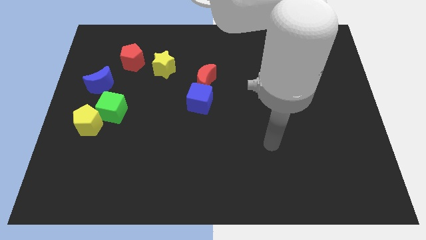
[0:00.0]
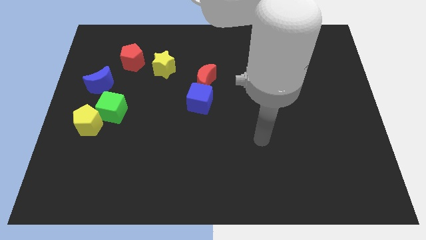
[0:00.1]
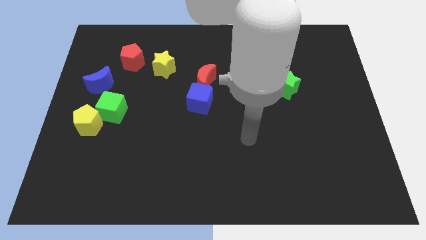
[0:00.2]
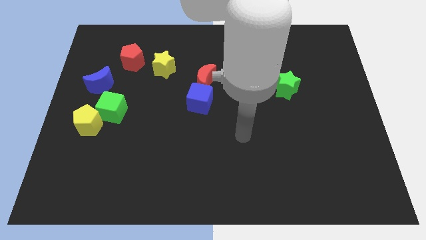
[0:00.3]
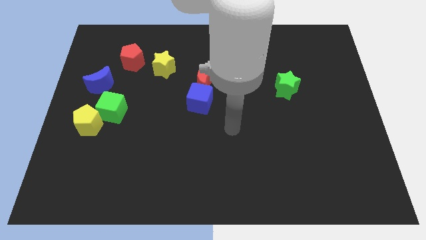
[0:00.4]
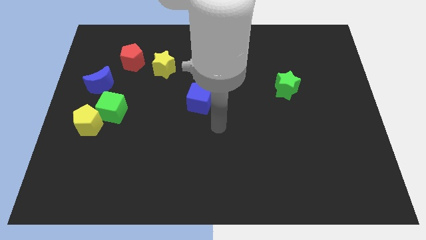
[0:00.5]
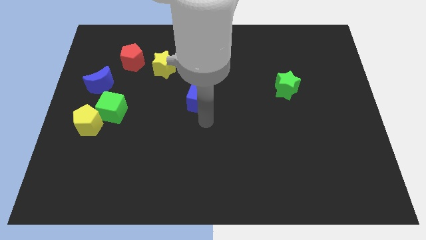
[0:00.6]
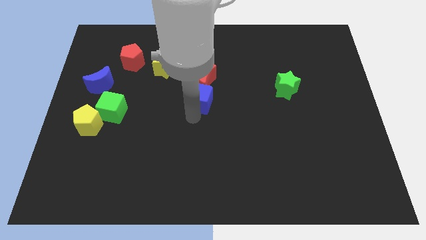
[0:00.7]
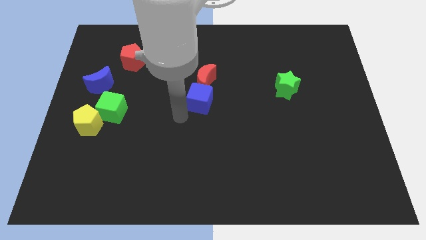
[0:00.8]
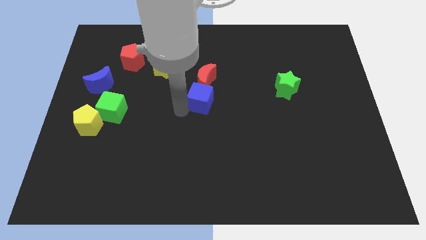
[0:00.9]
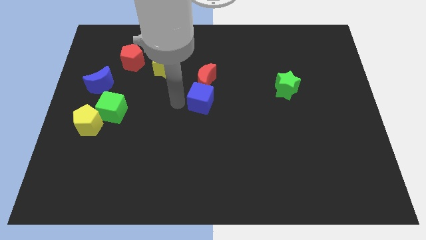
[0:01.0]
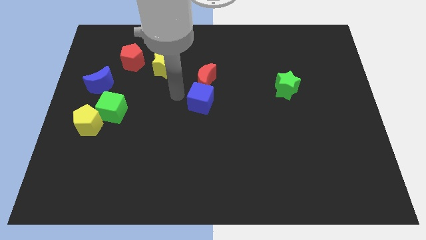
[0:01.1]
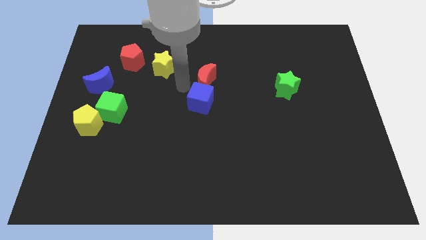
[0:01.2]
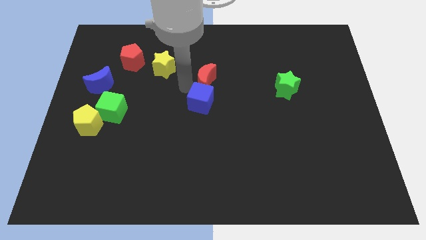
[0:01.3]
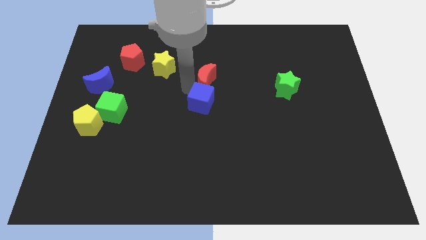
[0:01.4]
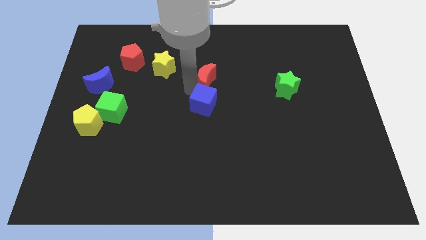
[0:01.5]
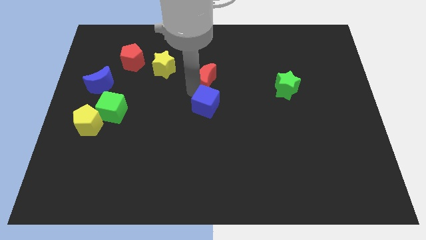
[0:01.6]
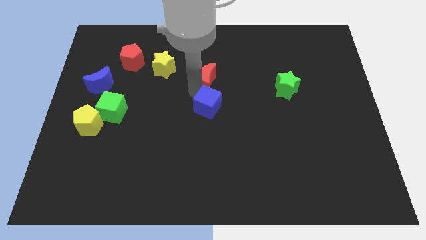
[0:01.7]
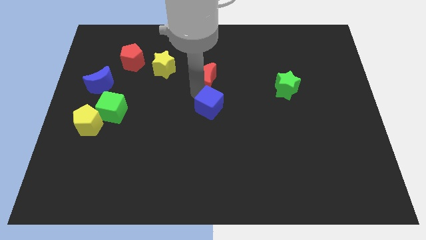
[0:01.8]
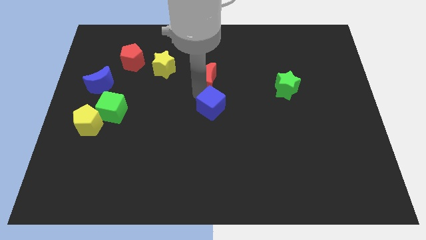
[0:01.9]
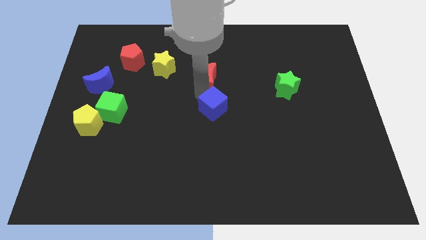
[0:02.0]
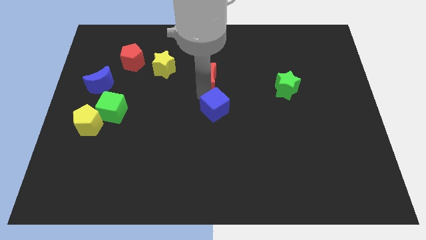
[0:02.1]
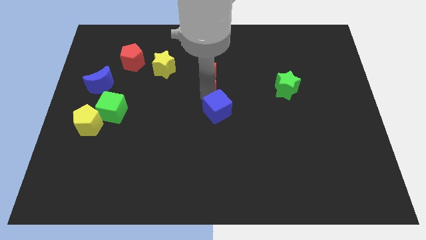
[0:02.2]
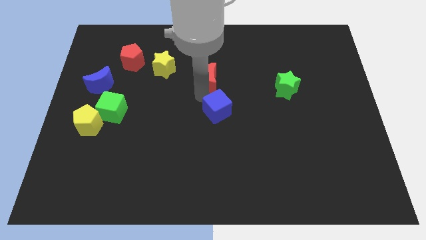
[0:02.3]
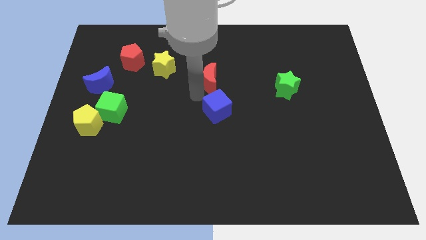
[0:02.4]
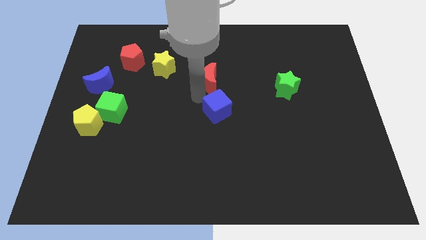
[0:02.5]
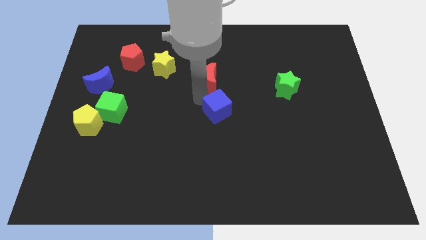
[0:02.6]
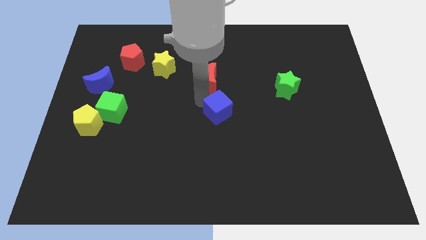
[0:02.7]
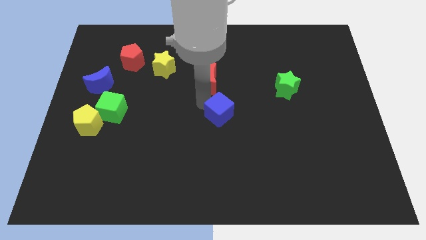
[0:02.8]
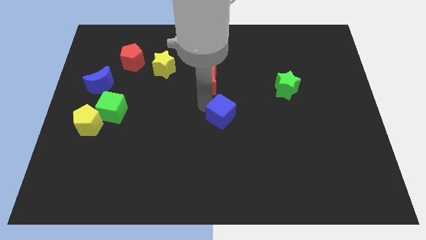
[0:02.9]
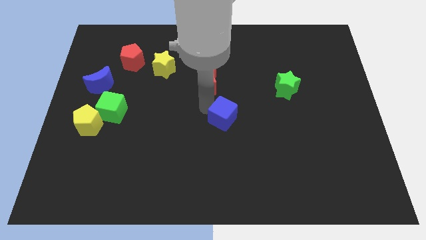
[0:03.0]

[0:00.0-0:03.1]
push the blue cube a bit down and to the right

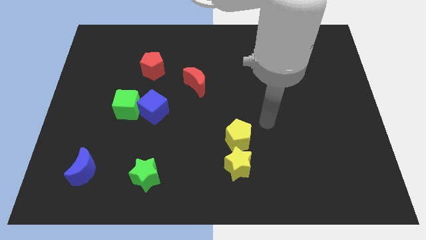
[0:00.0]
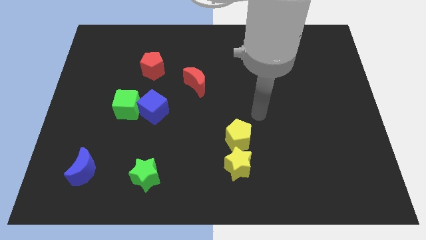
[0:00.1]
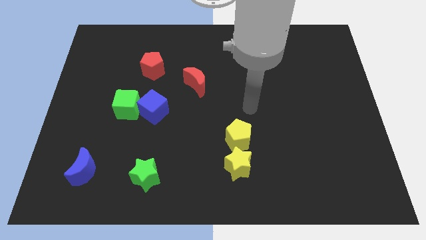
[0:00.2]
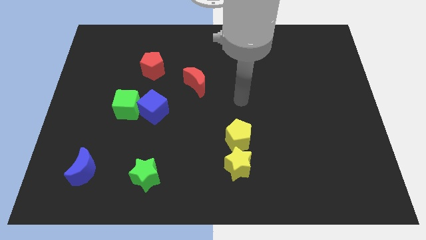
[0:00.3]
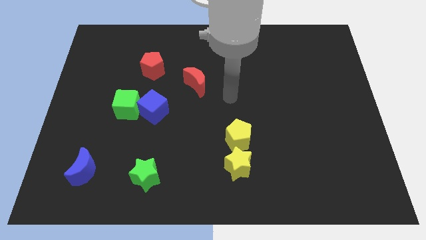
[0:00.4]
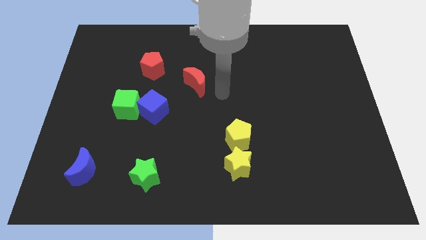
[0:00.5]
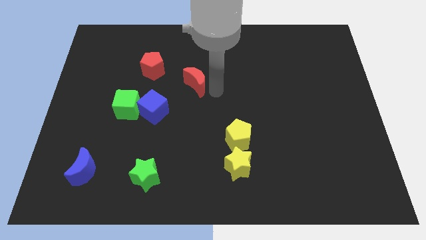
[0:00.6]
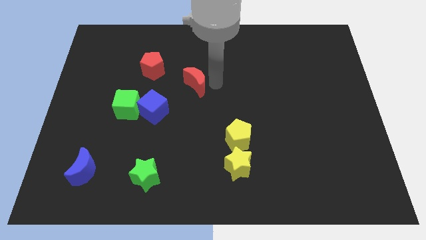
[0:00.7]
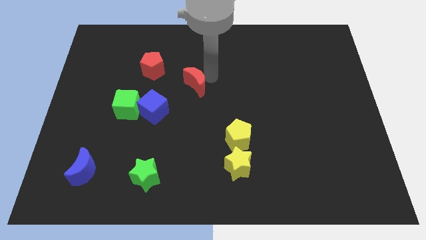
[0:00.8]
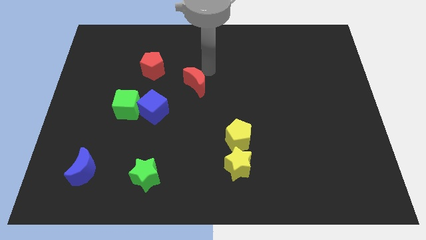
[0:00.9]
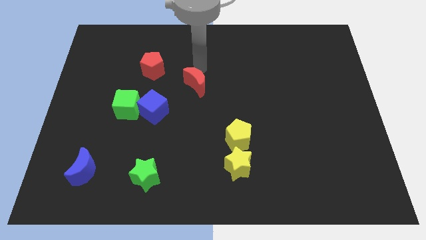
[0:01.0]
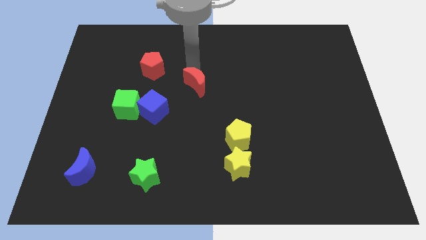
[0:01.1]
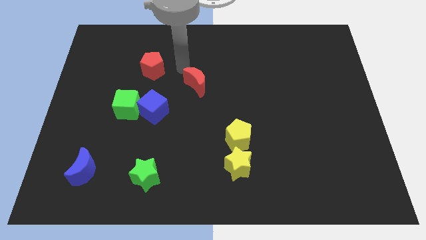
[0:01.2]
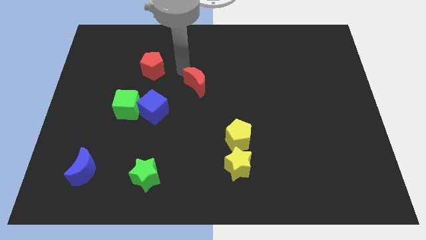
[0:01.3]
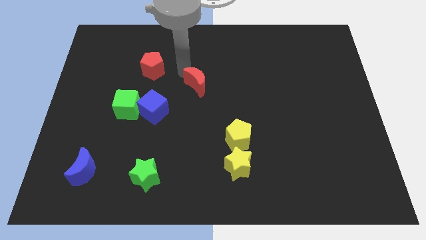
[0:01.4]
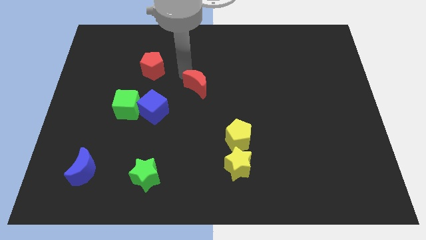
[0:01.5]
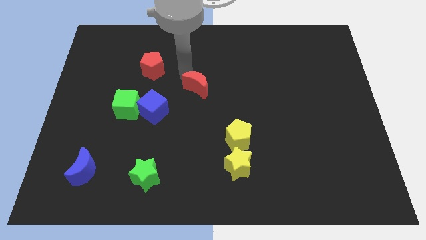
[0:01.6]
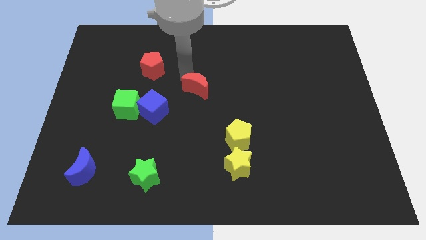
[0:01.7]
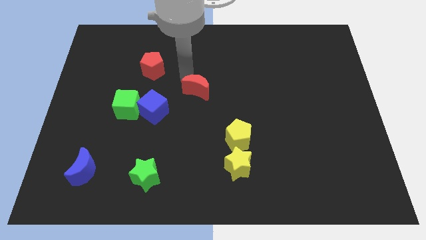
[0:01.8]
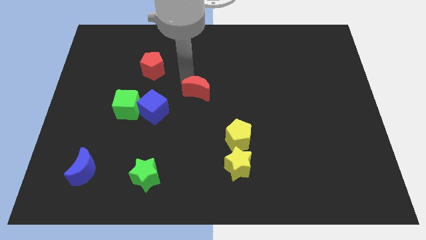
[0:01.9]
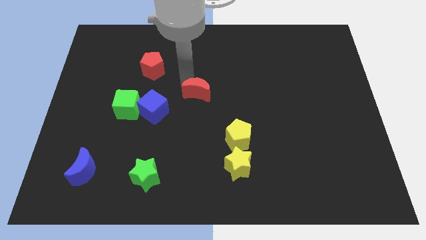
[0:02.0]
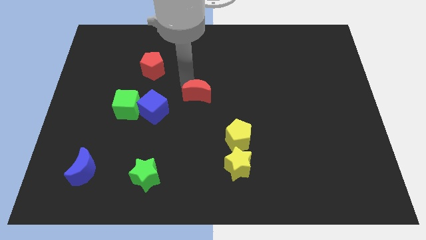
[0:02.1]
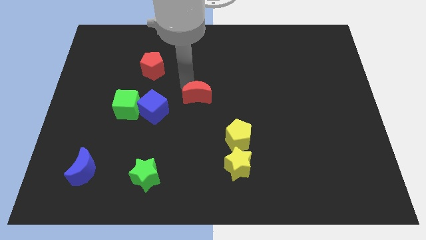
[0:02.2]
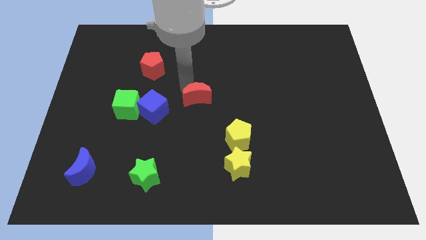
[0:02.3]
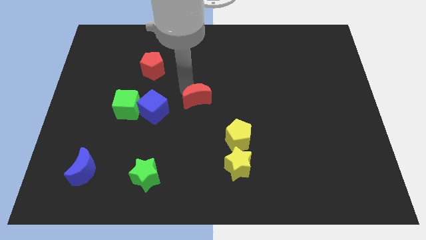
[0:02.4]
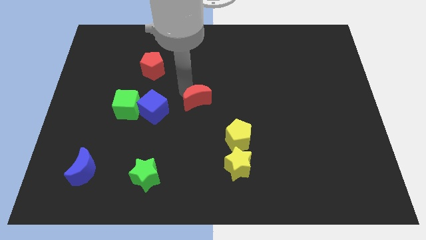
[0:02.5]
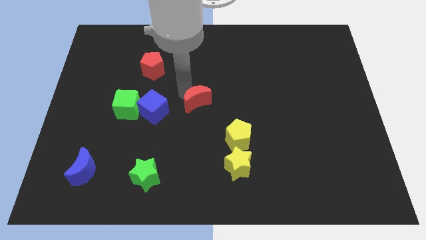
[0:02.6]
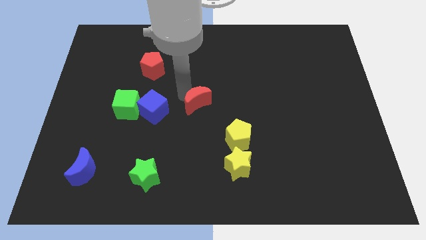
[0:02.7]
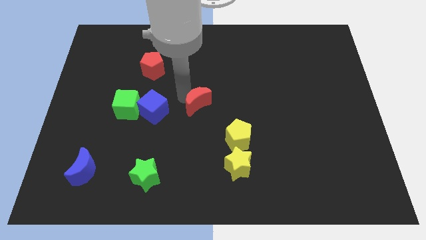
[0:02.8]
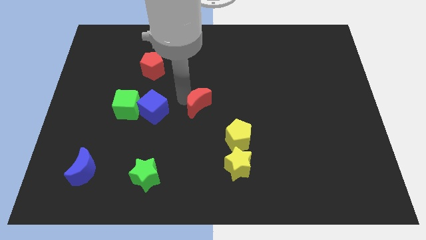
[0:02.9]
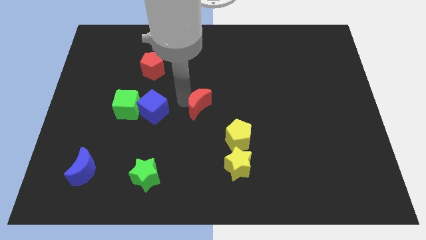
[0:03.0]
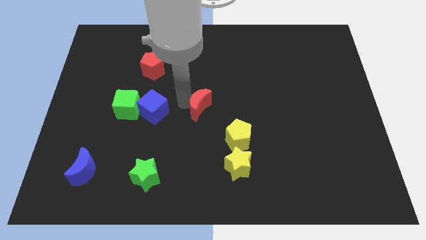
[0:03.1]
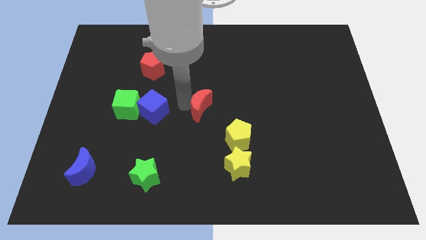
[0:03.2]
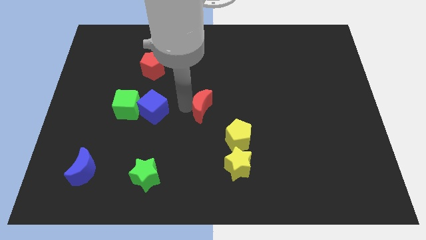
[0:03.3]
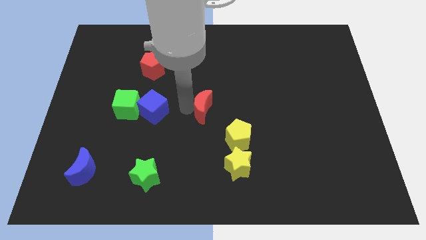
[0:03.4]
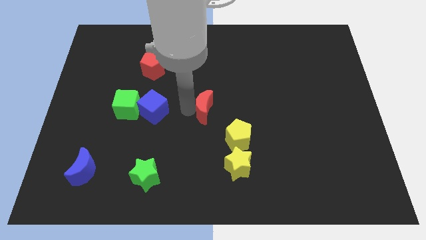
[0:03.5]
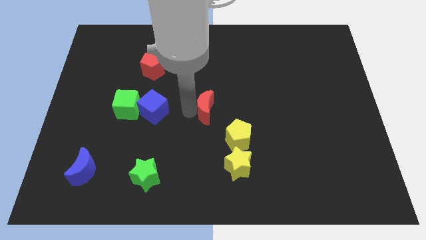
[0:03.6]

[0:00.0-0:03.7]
push the red moon diagonally down and right a little

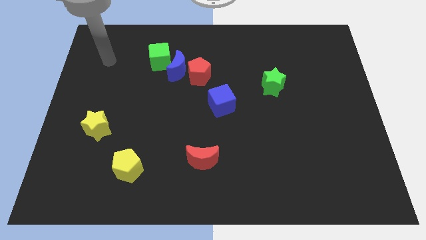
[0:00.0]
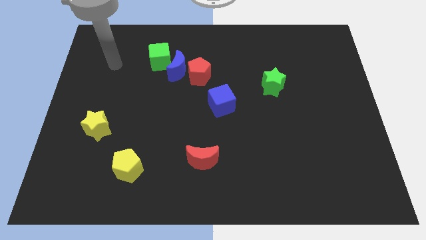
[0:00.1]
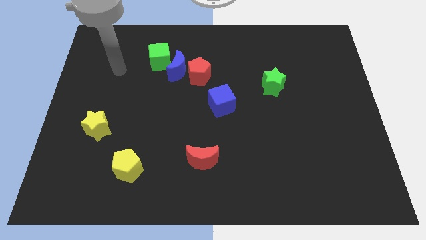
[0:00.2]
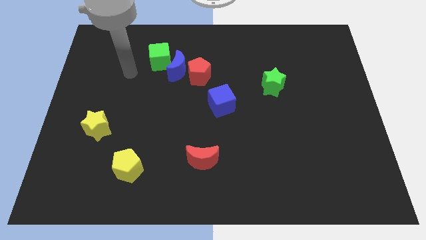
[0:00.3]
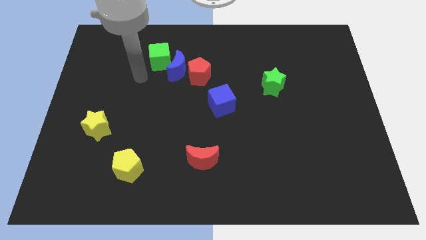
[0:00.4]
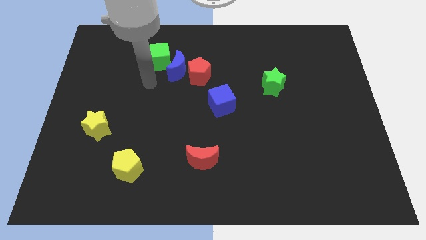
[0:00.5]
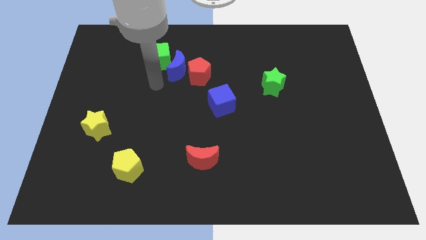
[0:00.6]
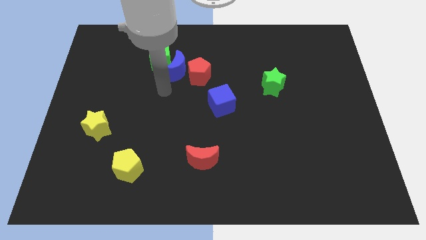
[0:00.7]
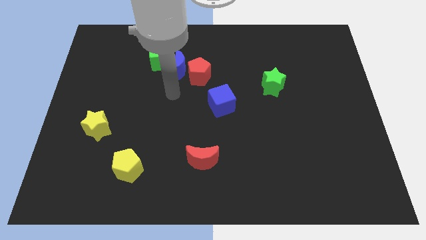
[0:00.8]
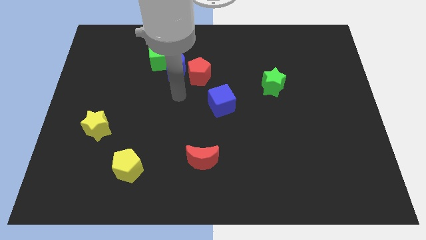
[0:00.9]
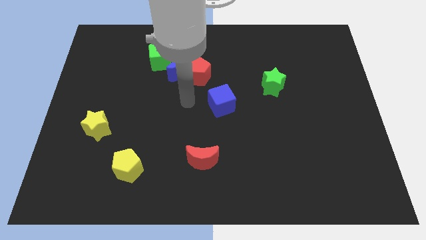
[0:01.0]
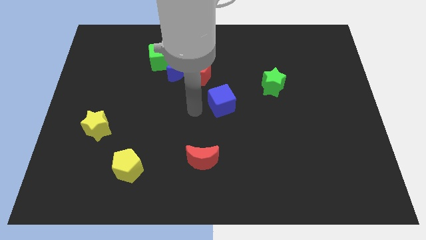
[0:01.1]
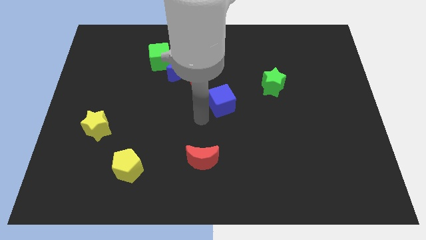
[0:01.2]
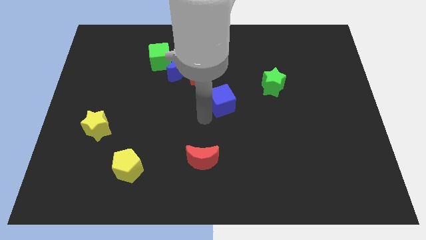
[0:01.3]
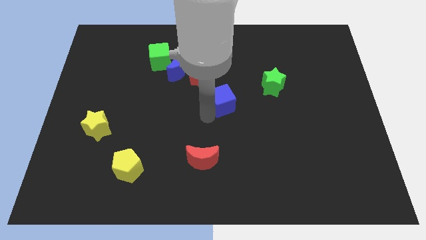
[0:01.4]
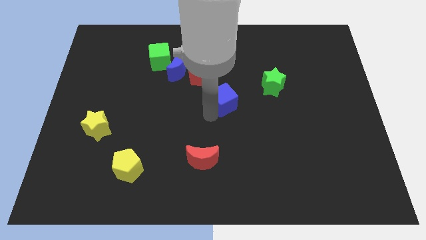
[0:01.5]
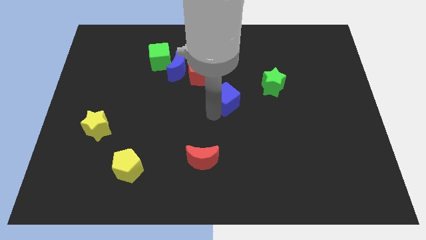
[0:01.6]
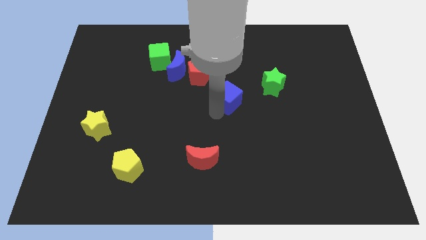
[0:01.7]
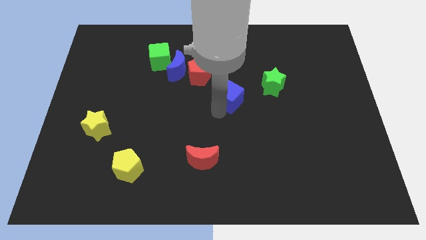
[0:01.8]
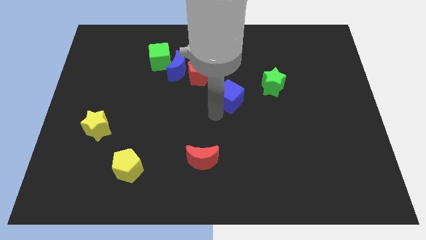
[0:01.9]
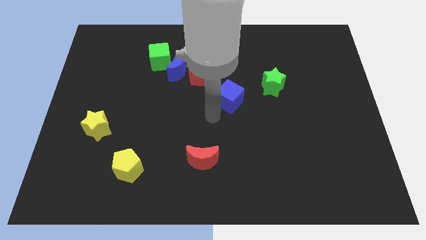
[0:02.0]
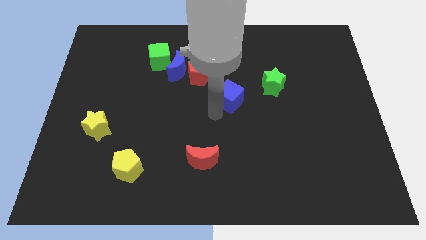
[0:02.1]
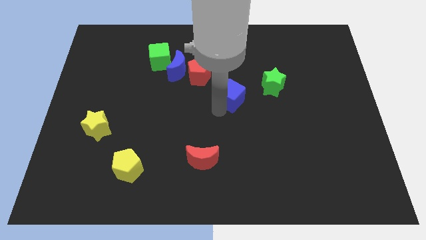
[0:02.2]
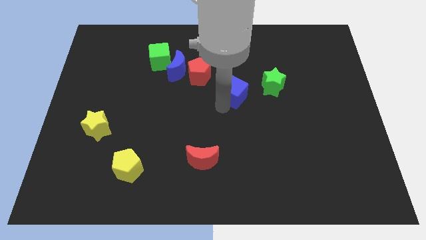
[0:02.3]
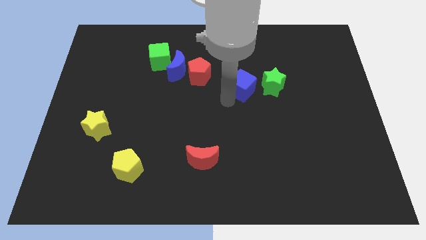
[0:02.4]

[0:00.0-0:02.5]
slide the blue cube diagonally upwards and right a little bit
